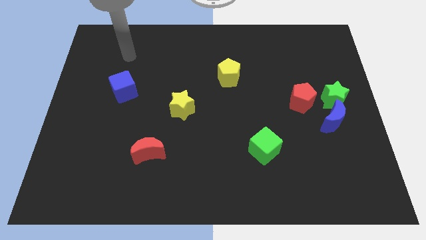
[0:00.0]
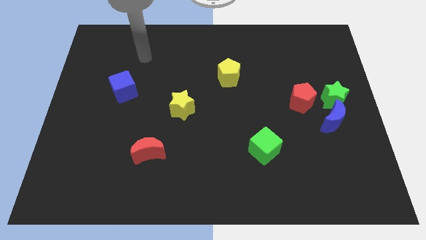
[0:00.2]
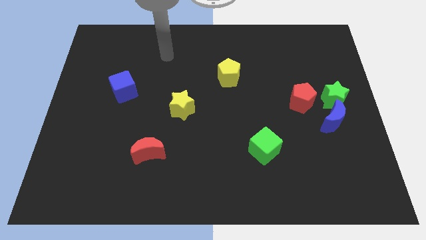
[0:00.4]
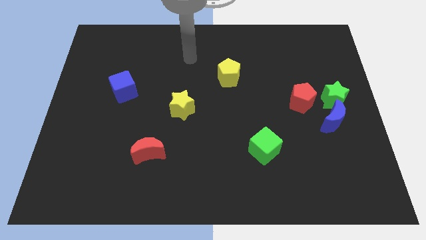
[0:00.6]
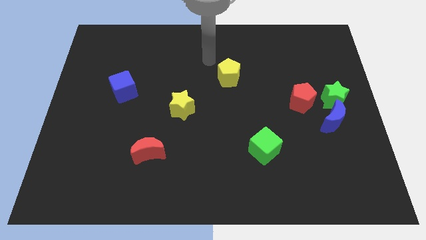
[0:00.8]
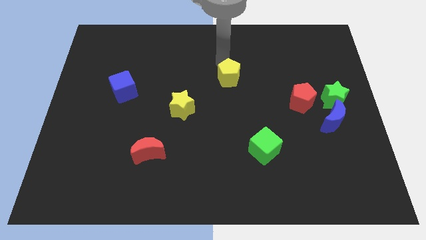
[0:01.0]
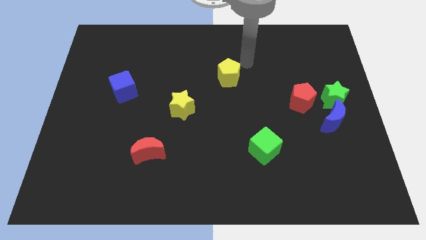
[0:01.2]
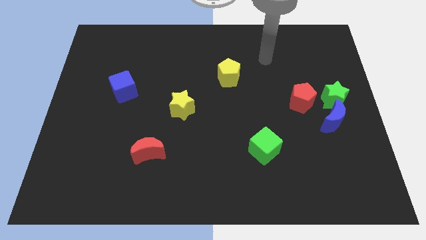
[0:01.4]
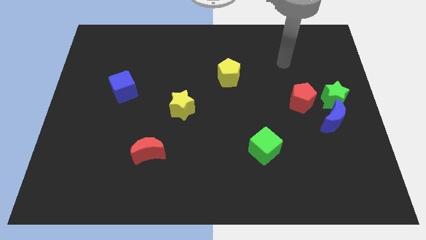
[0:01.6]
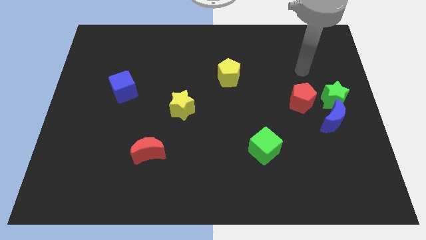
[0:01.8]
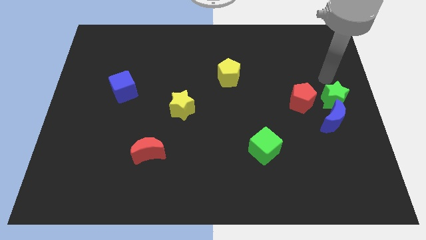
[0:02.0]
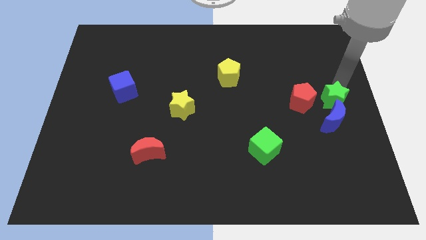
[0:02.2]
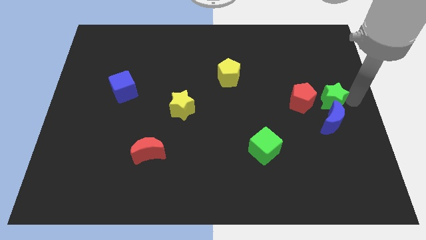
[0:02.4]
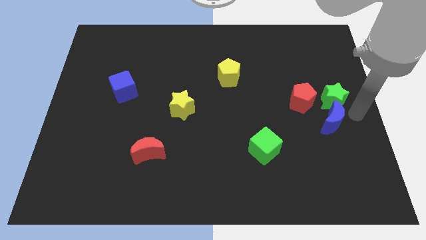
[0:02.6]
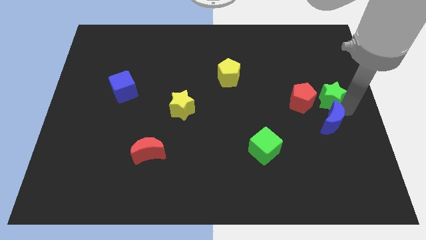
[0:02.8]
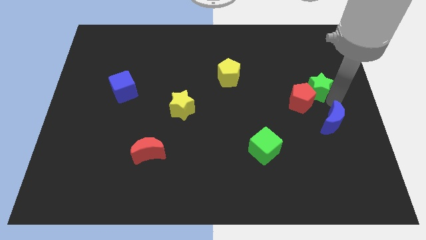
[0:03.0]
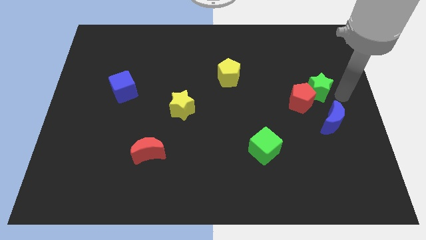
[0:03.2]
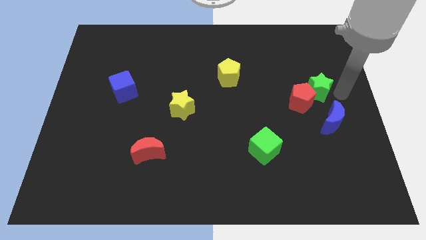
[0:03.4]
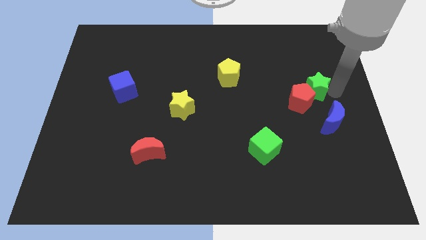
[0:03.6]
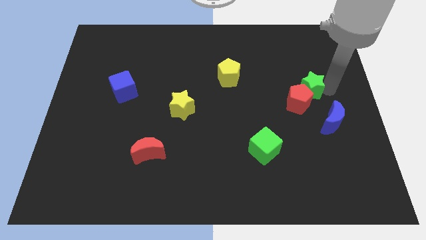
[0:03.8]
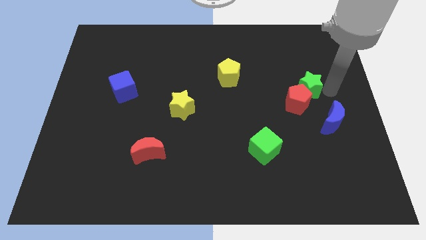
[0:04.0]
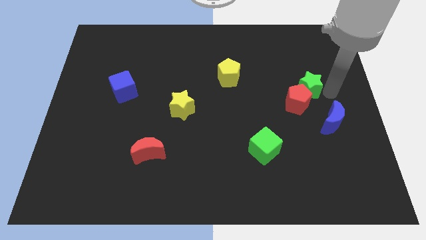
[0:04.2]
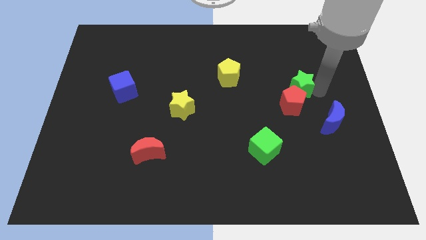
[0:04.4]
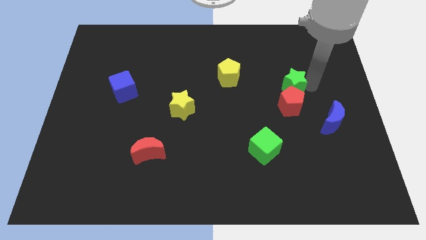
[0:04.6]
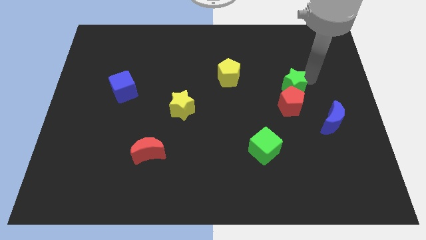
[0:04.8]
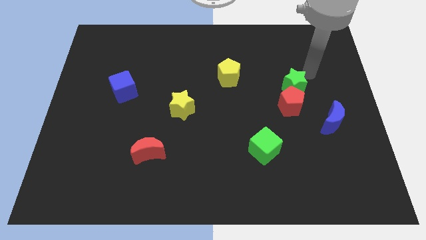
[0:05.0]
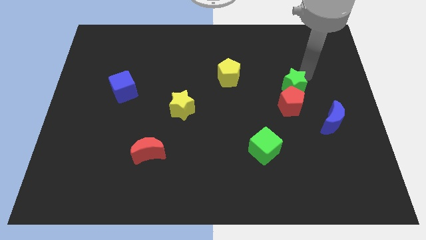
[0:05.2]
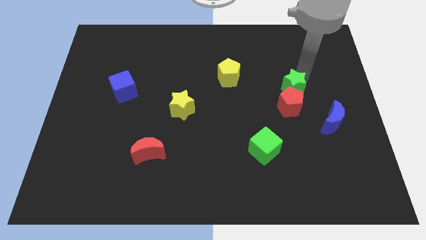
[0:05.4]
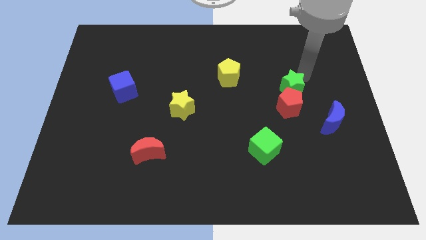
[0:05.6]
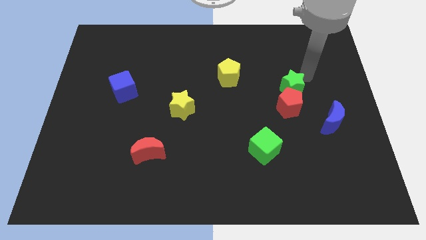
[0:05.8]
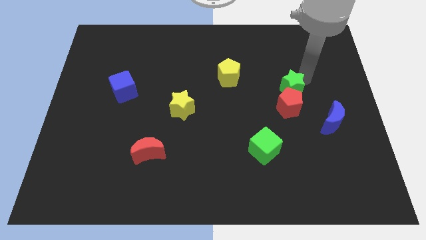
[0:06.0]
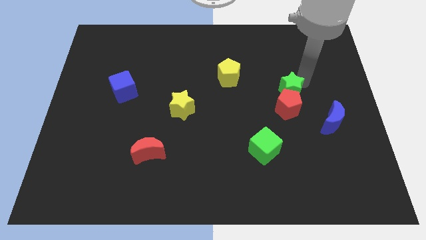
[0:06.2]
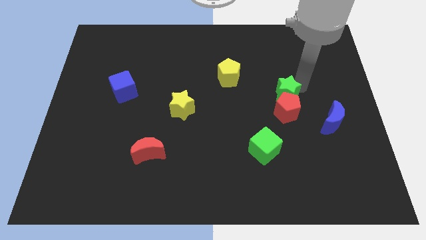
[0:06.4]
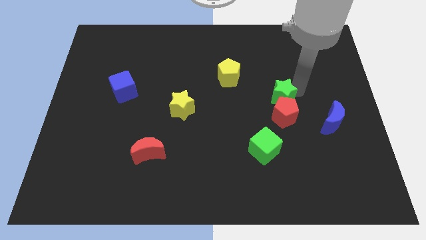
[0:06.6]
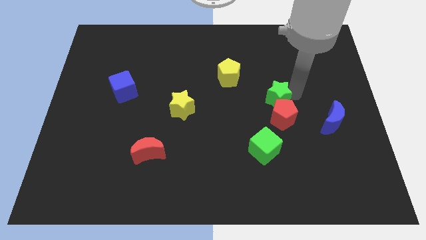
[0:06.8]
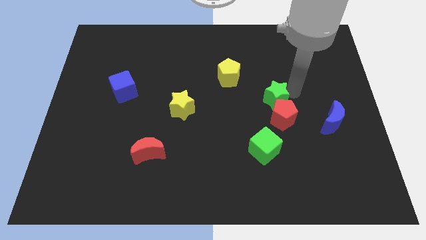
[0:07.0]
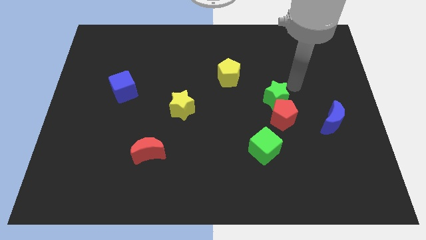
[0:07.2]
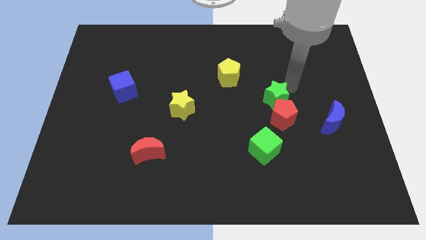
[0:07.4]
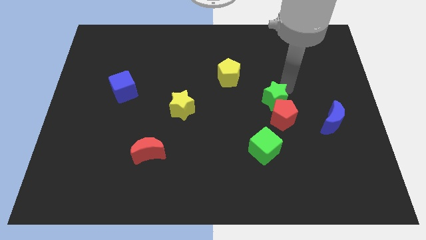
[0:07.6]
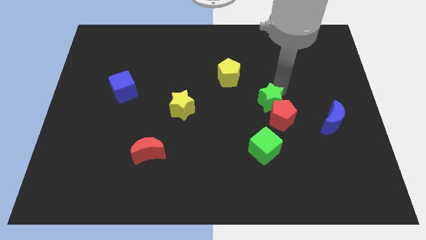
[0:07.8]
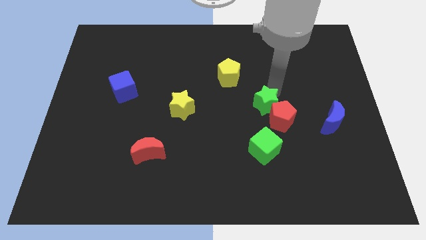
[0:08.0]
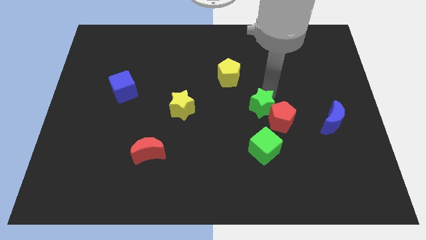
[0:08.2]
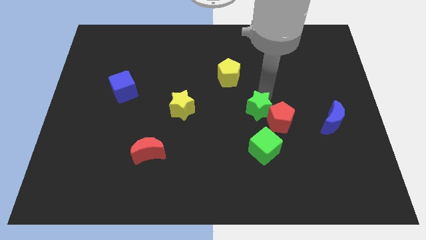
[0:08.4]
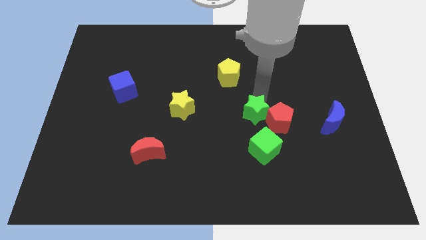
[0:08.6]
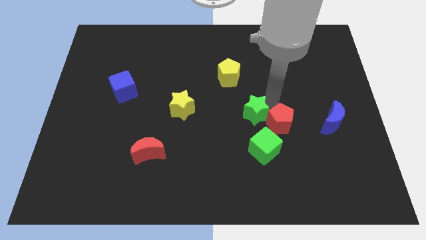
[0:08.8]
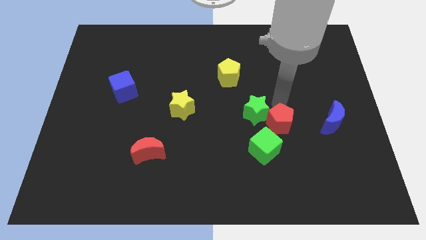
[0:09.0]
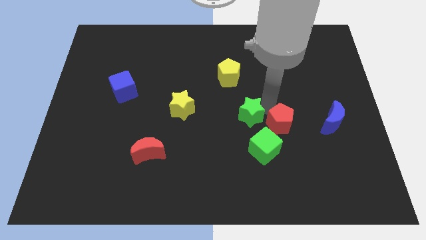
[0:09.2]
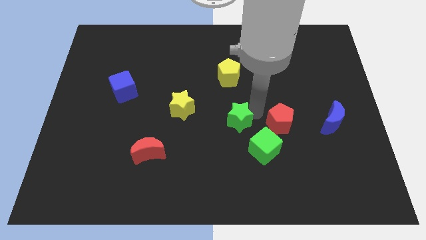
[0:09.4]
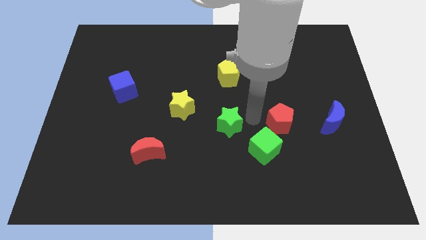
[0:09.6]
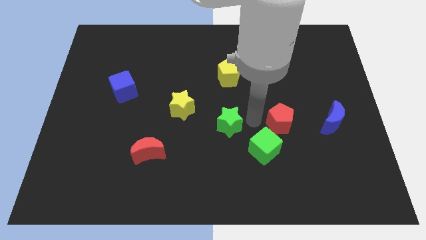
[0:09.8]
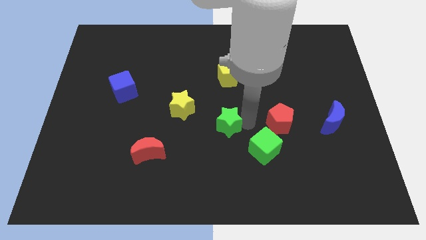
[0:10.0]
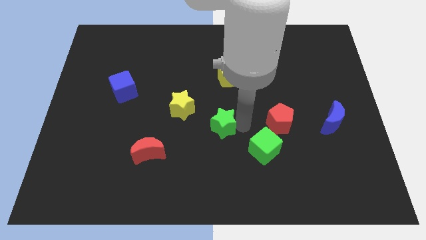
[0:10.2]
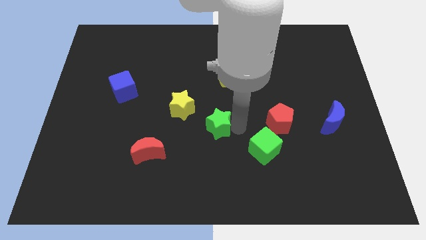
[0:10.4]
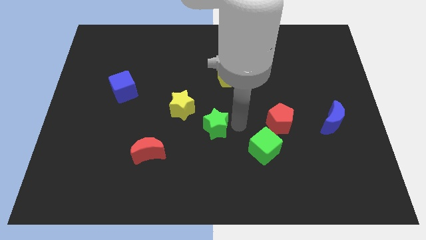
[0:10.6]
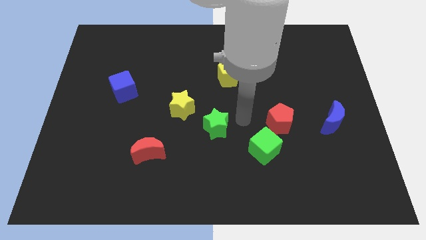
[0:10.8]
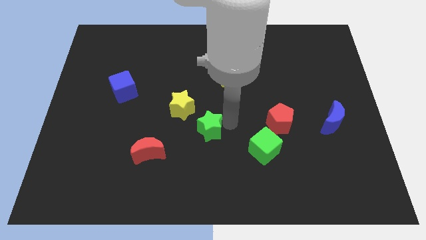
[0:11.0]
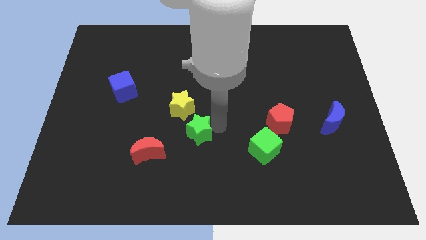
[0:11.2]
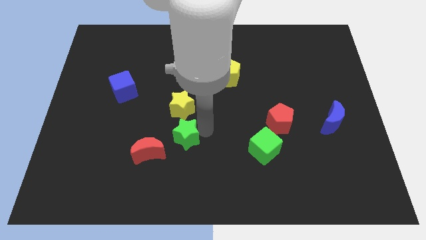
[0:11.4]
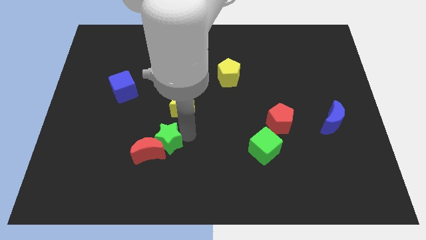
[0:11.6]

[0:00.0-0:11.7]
push the green star to the red moon

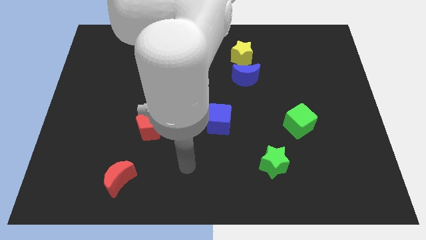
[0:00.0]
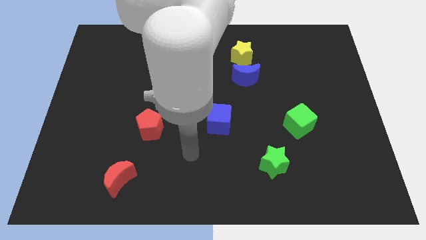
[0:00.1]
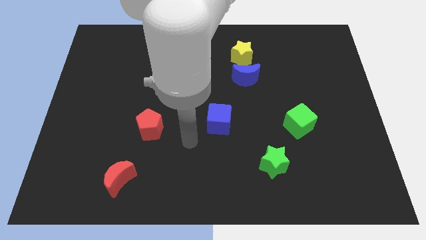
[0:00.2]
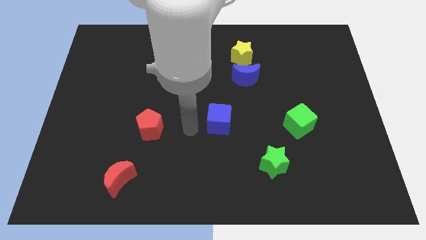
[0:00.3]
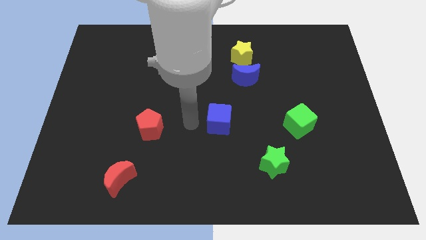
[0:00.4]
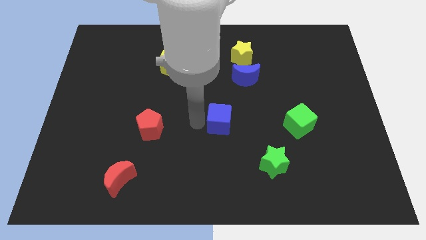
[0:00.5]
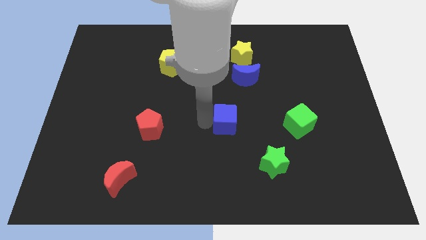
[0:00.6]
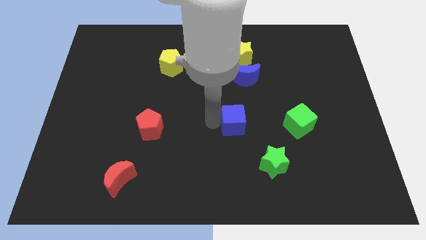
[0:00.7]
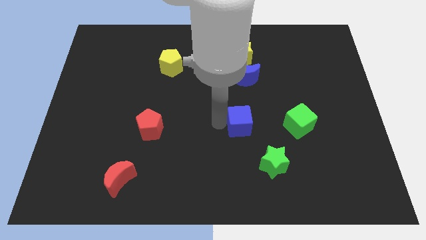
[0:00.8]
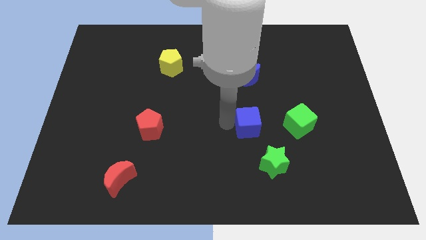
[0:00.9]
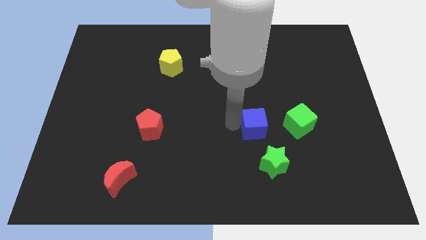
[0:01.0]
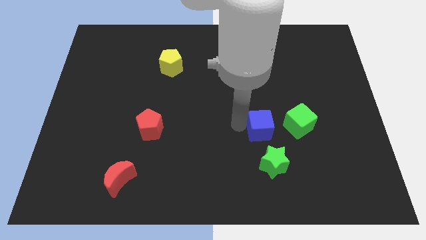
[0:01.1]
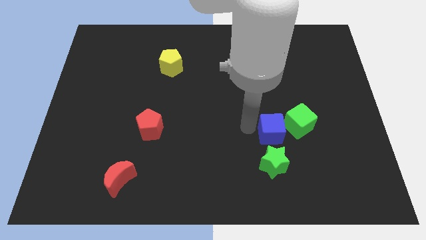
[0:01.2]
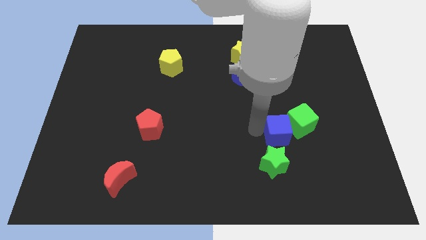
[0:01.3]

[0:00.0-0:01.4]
put the blue cube towards the green cube

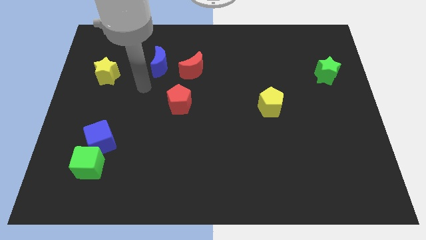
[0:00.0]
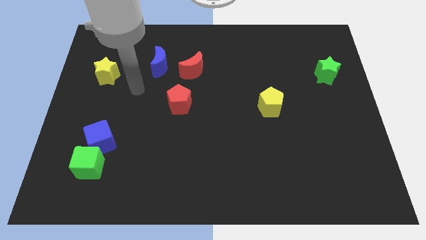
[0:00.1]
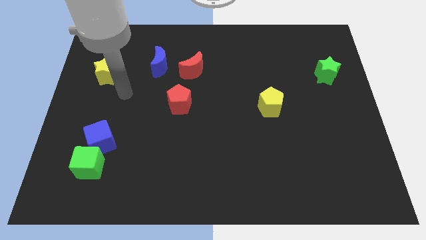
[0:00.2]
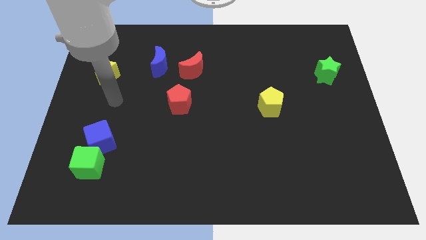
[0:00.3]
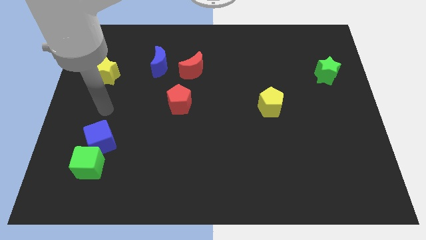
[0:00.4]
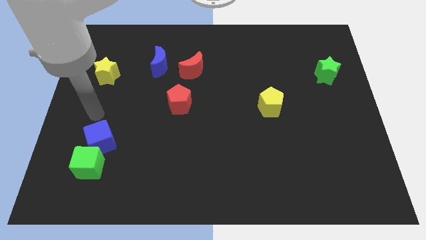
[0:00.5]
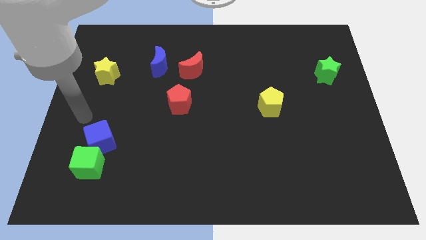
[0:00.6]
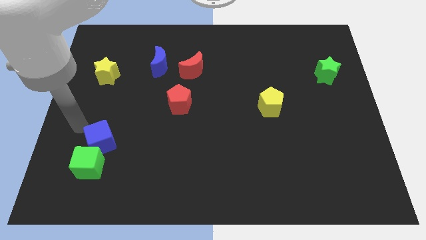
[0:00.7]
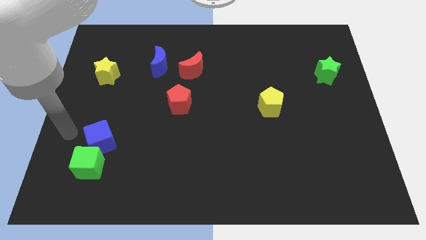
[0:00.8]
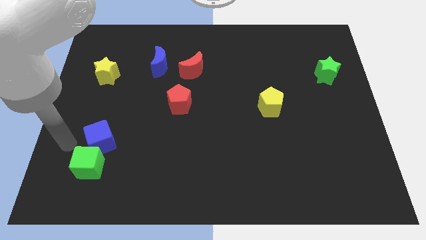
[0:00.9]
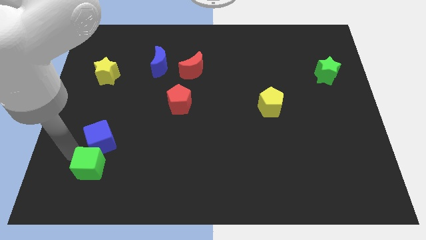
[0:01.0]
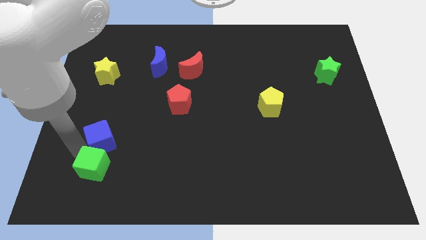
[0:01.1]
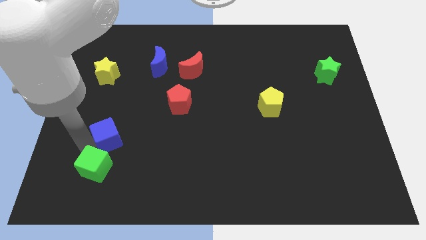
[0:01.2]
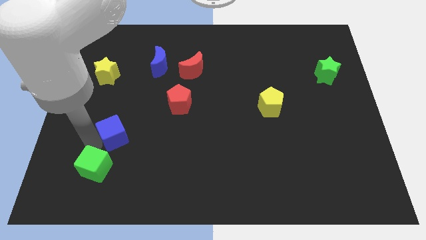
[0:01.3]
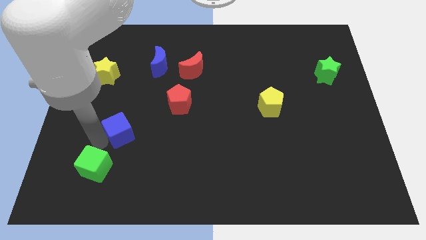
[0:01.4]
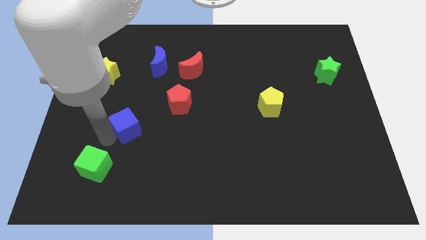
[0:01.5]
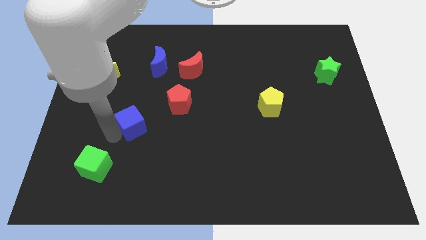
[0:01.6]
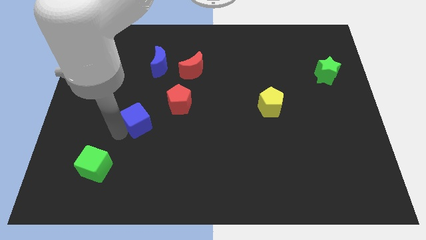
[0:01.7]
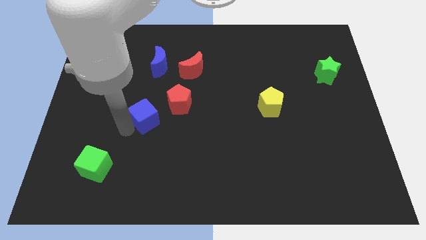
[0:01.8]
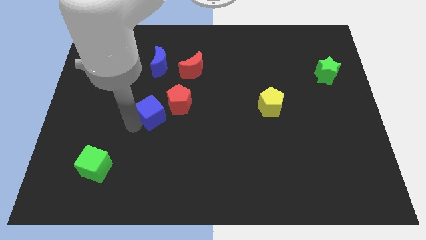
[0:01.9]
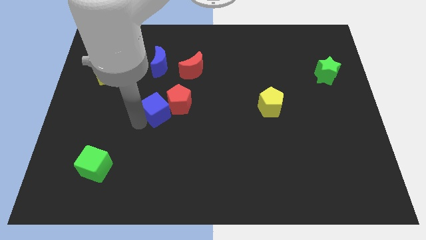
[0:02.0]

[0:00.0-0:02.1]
slide the blue cube next to the red pentagon
